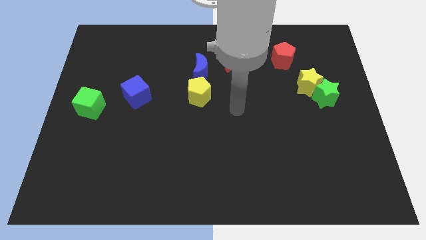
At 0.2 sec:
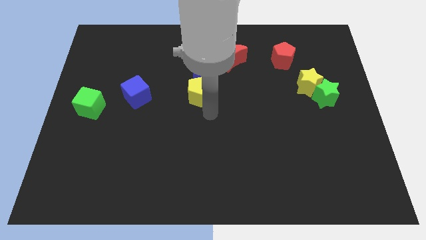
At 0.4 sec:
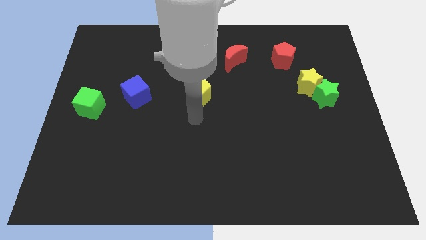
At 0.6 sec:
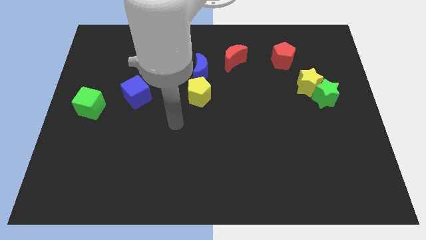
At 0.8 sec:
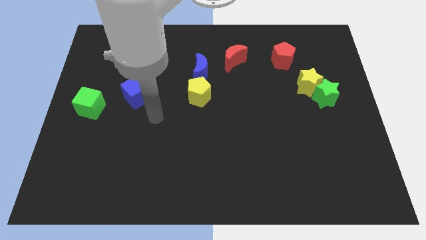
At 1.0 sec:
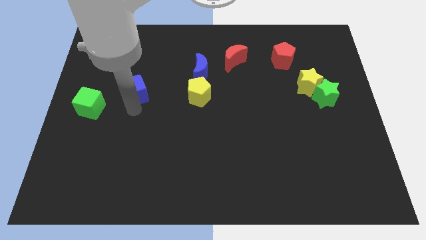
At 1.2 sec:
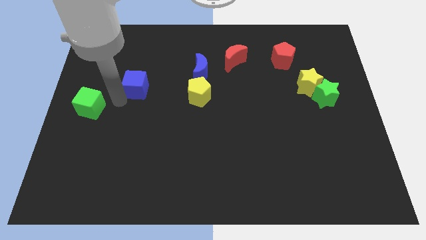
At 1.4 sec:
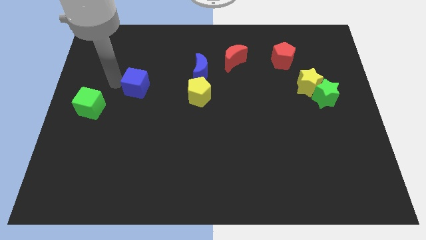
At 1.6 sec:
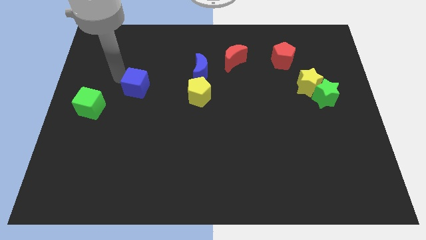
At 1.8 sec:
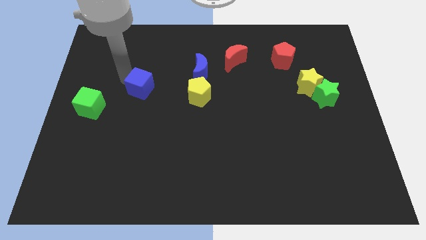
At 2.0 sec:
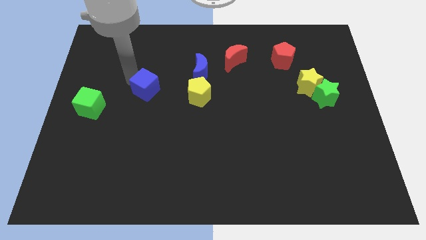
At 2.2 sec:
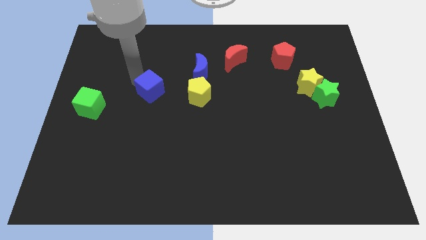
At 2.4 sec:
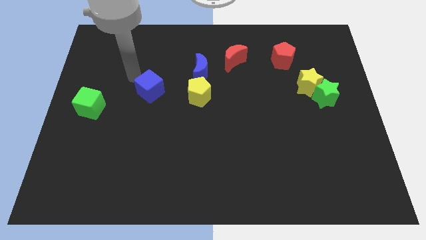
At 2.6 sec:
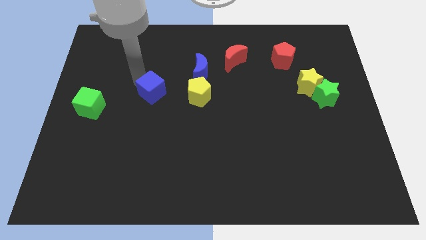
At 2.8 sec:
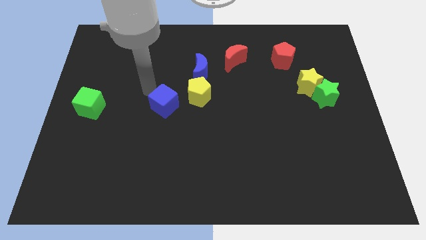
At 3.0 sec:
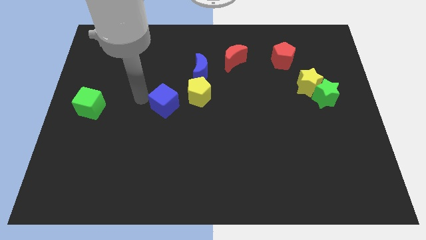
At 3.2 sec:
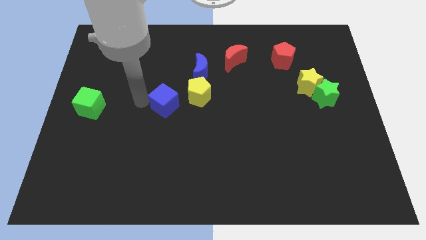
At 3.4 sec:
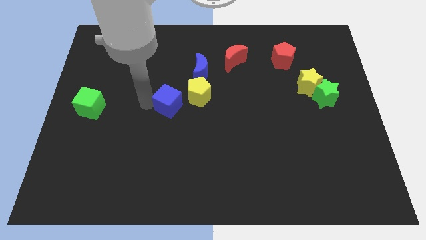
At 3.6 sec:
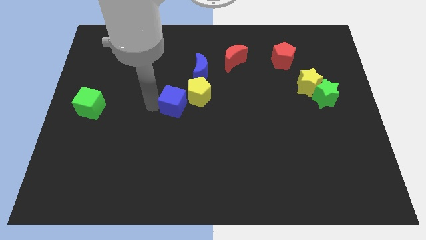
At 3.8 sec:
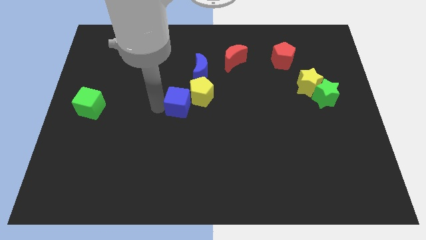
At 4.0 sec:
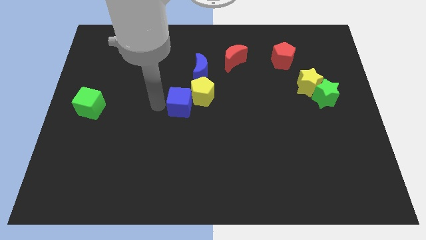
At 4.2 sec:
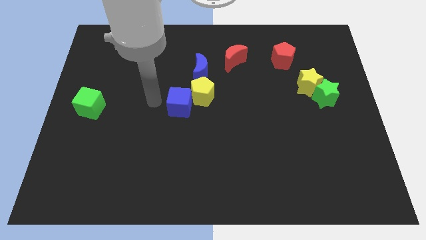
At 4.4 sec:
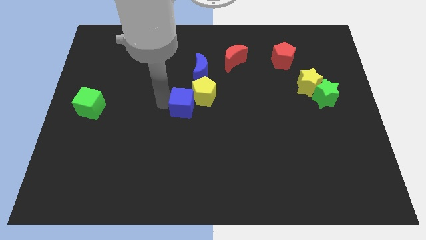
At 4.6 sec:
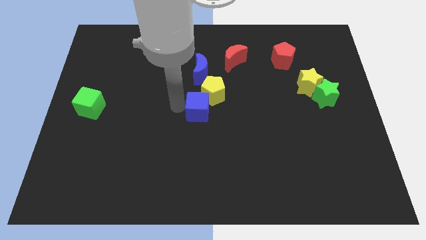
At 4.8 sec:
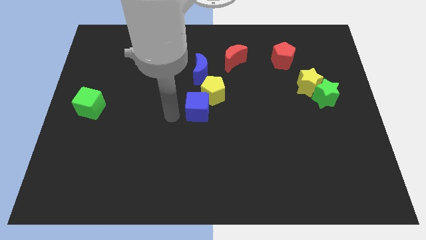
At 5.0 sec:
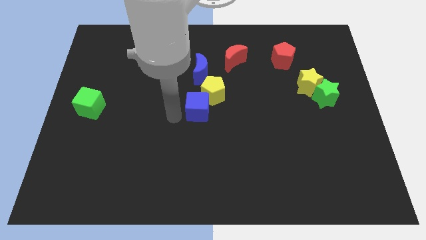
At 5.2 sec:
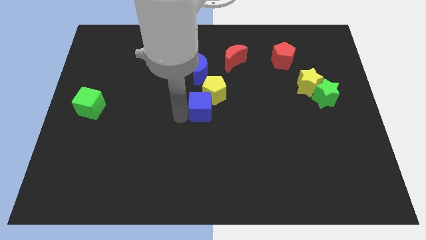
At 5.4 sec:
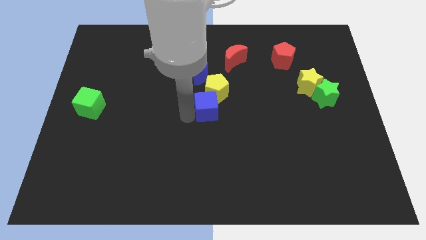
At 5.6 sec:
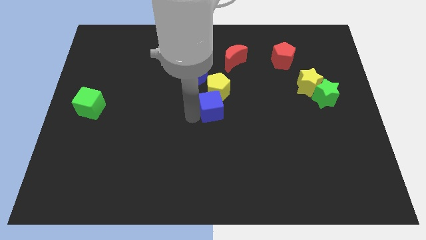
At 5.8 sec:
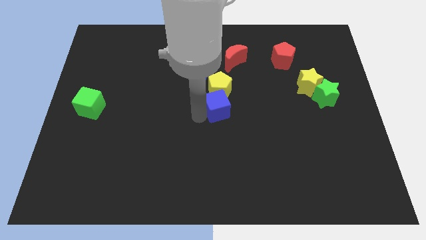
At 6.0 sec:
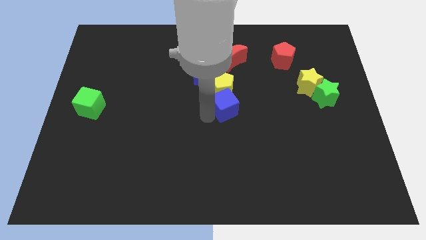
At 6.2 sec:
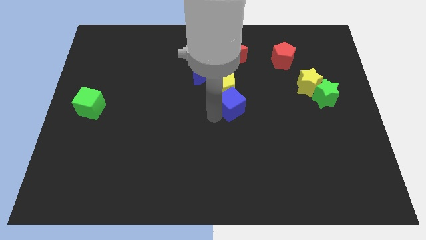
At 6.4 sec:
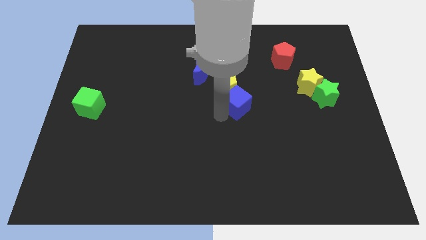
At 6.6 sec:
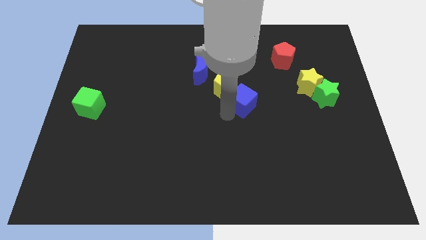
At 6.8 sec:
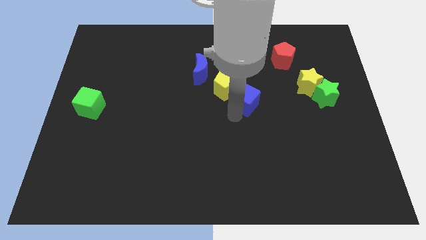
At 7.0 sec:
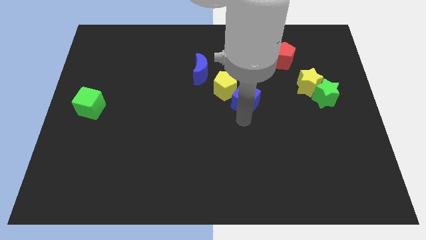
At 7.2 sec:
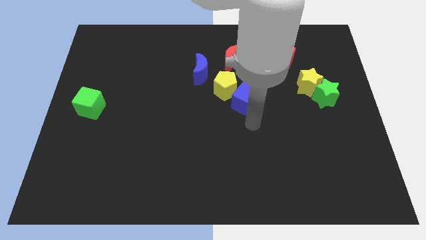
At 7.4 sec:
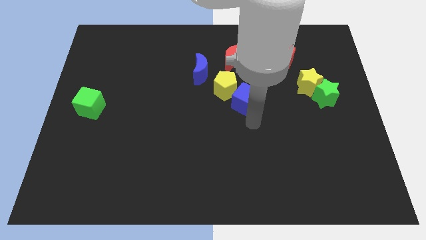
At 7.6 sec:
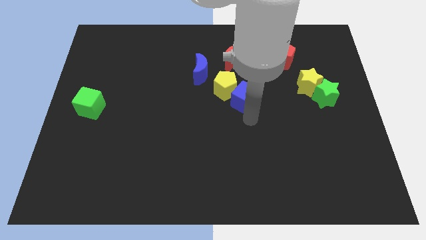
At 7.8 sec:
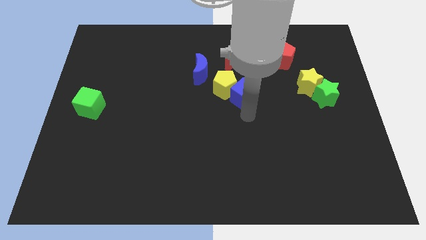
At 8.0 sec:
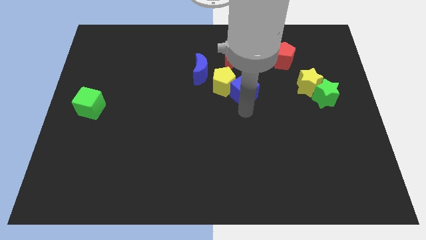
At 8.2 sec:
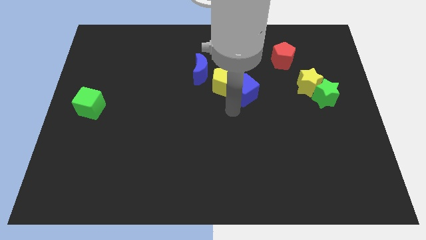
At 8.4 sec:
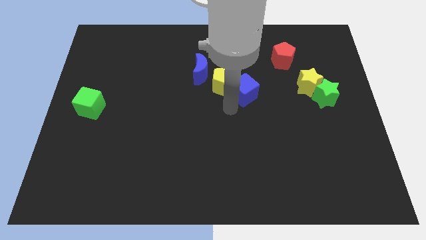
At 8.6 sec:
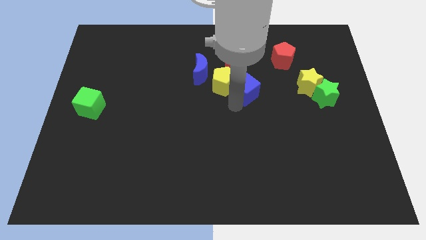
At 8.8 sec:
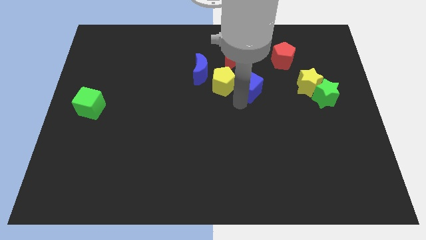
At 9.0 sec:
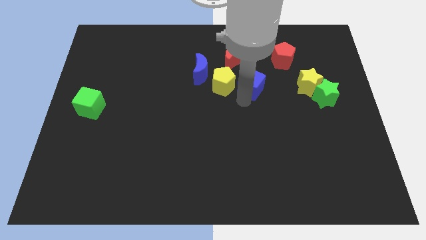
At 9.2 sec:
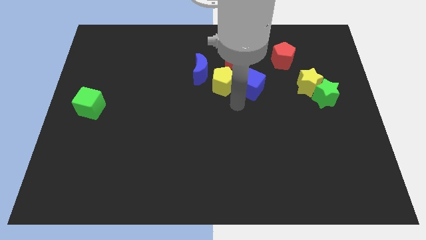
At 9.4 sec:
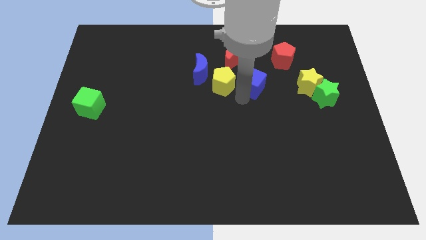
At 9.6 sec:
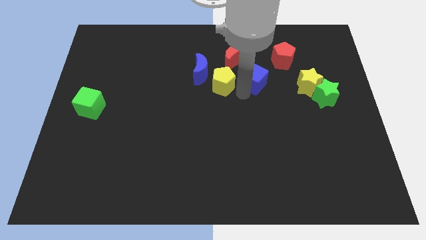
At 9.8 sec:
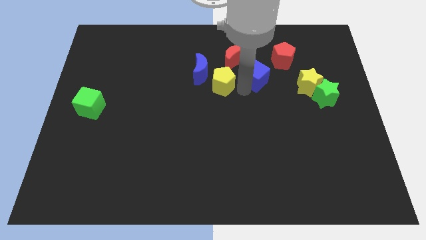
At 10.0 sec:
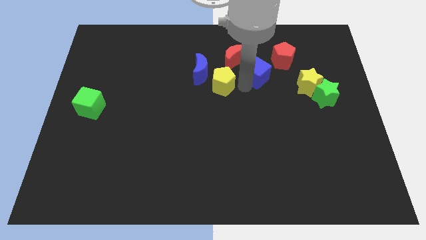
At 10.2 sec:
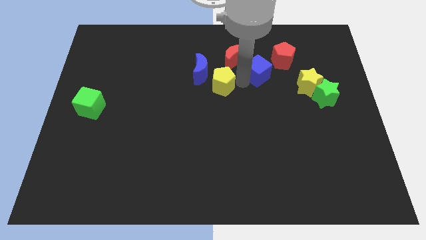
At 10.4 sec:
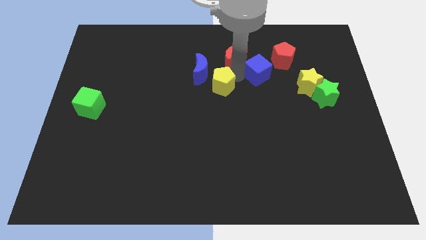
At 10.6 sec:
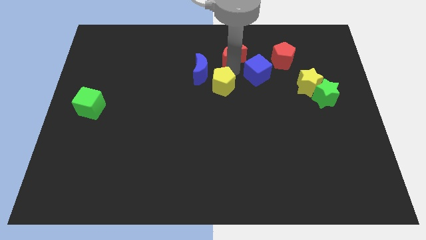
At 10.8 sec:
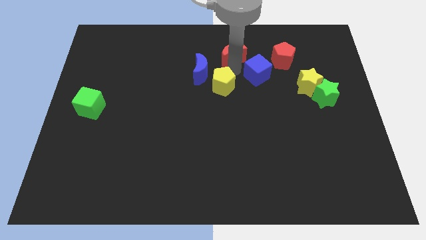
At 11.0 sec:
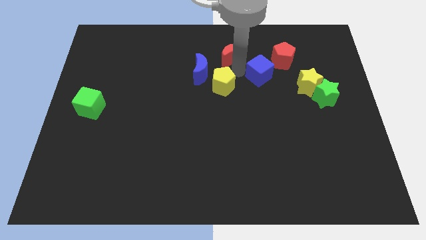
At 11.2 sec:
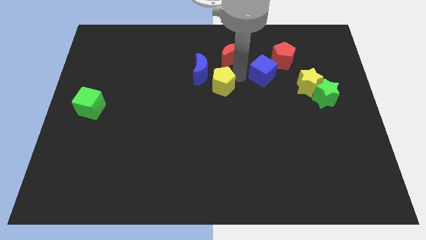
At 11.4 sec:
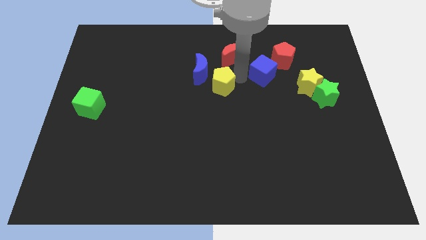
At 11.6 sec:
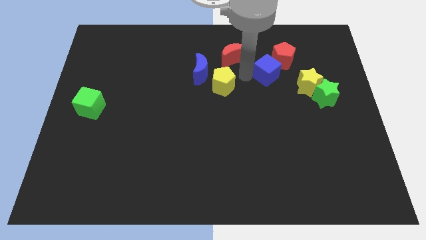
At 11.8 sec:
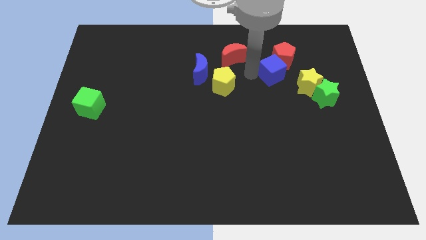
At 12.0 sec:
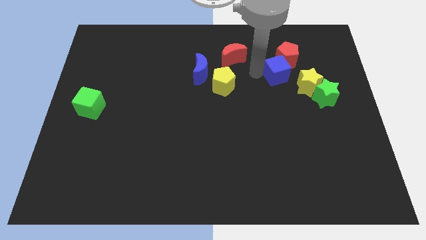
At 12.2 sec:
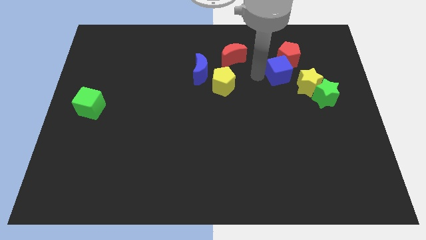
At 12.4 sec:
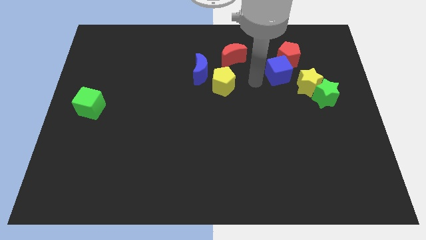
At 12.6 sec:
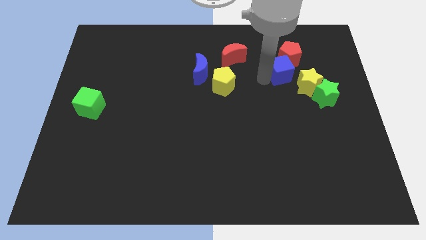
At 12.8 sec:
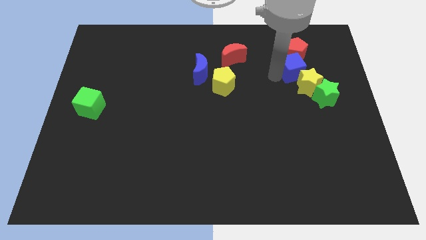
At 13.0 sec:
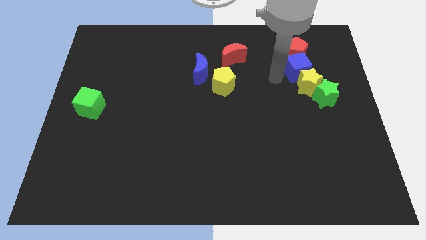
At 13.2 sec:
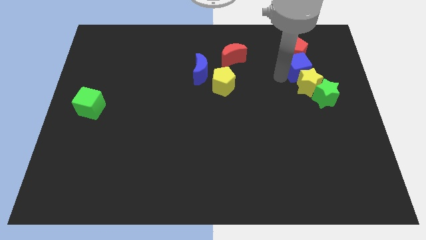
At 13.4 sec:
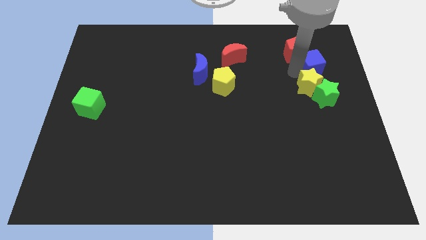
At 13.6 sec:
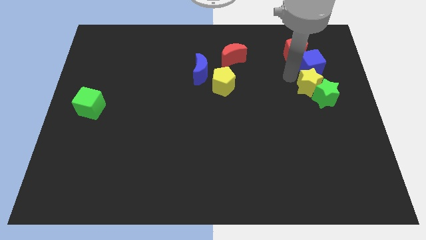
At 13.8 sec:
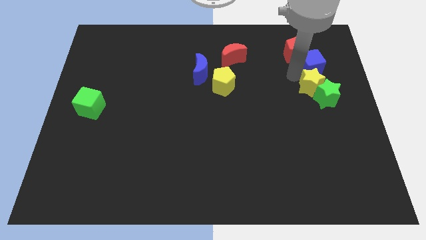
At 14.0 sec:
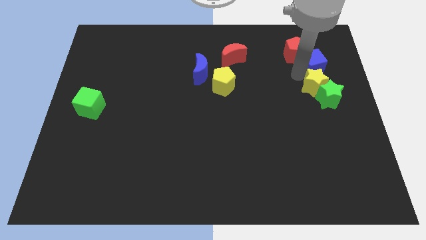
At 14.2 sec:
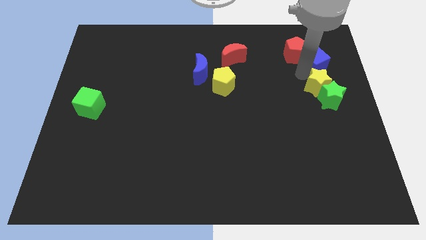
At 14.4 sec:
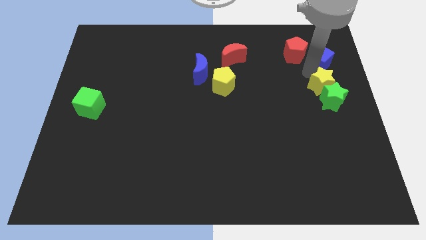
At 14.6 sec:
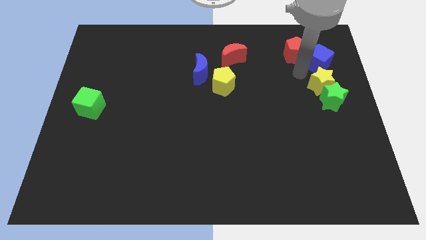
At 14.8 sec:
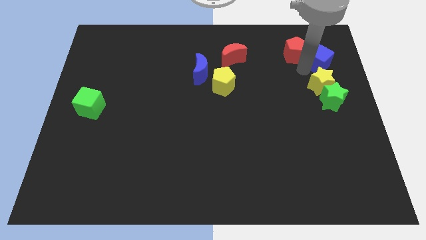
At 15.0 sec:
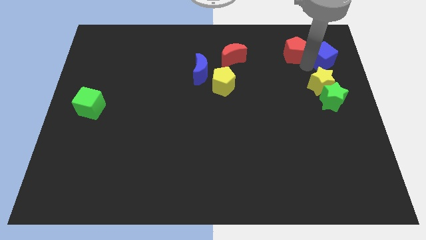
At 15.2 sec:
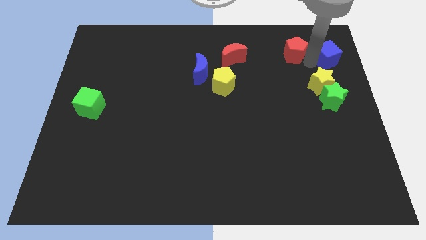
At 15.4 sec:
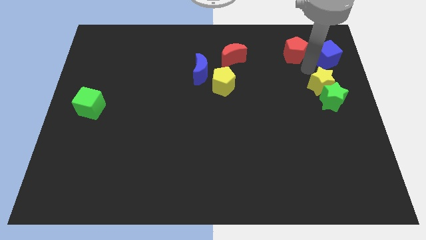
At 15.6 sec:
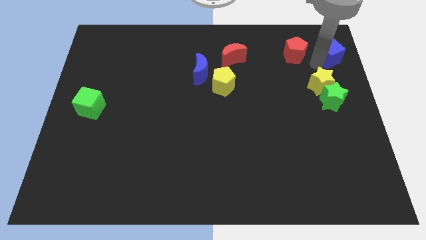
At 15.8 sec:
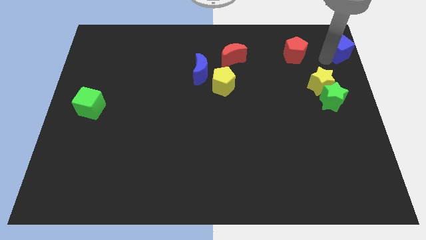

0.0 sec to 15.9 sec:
move the blue cube to the top right corner
